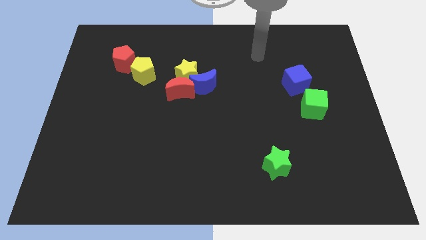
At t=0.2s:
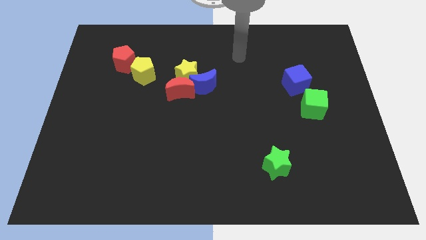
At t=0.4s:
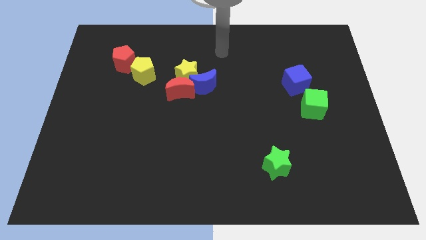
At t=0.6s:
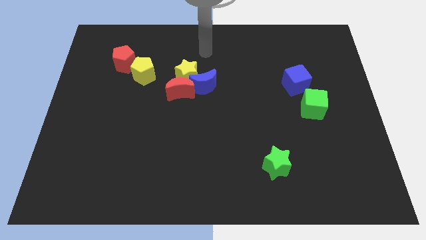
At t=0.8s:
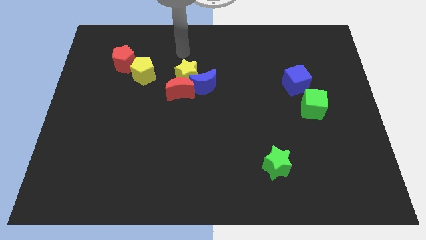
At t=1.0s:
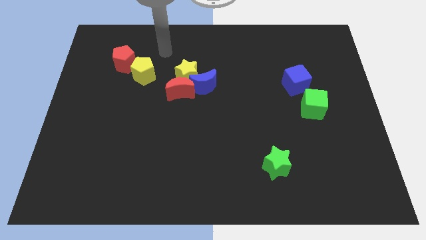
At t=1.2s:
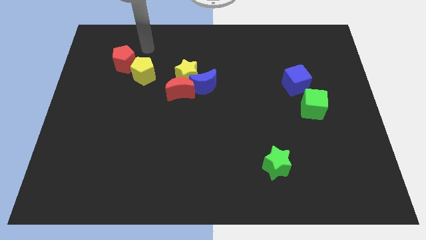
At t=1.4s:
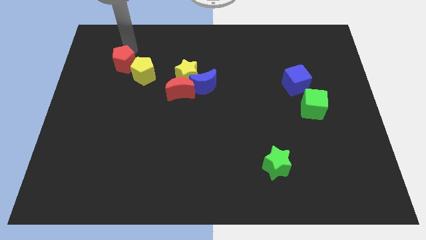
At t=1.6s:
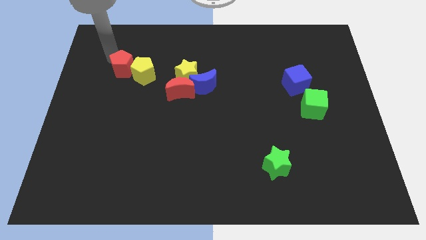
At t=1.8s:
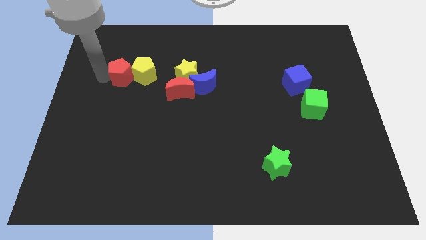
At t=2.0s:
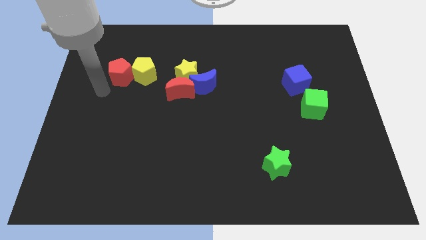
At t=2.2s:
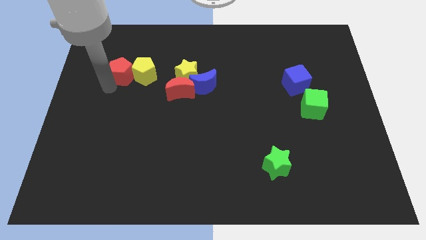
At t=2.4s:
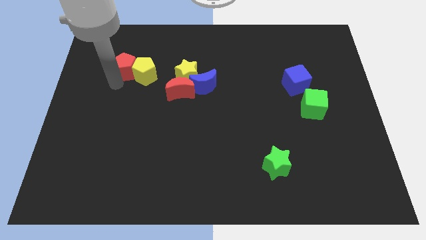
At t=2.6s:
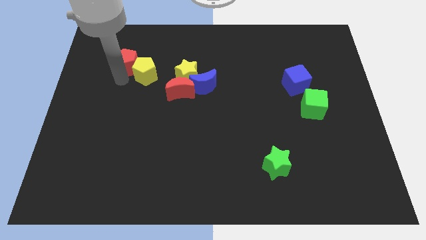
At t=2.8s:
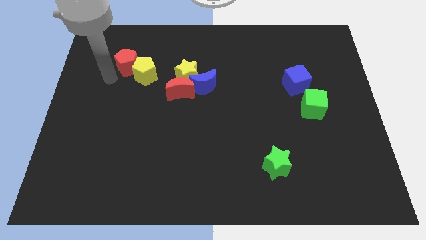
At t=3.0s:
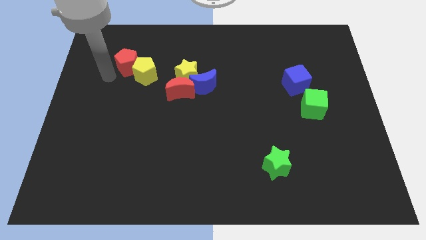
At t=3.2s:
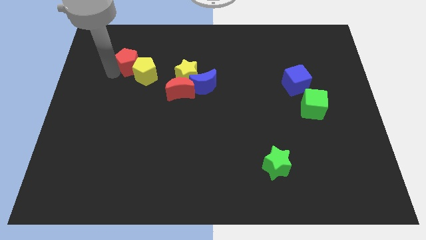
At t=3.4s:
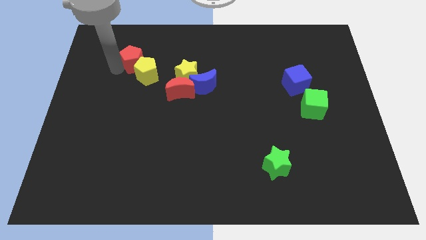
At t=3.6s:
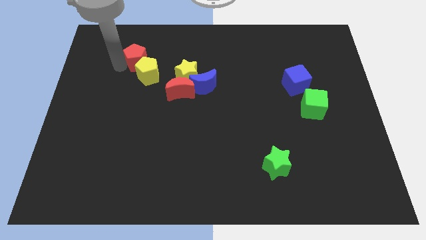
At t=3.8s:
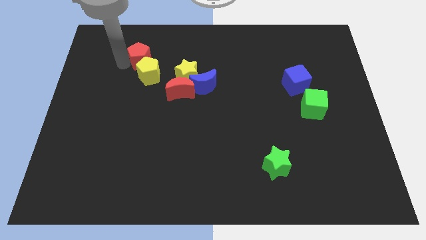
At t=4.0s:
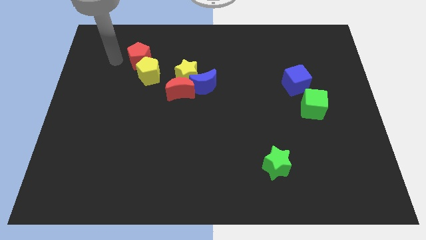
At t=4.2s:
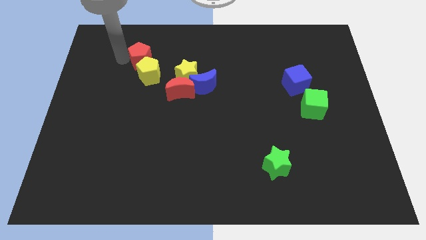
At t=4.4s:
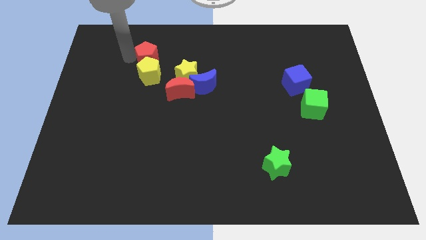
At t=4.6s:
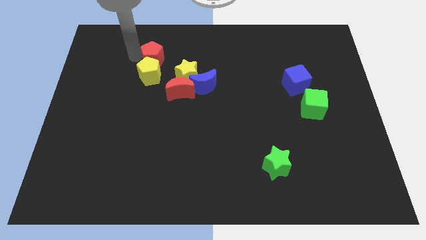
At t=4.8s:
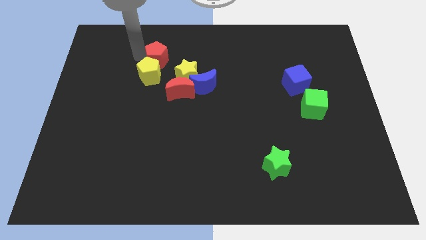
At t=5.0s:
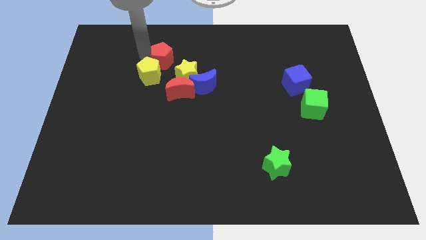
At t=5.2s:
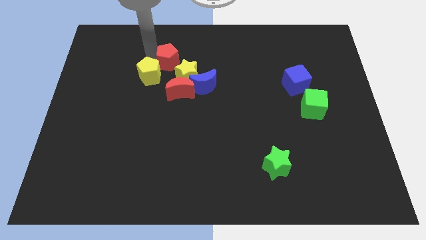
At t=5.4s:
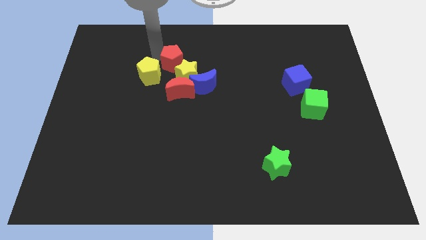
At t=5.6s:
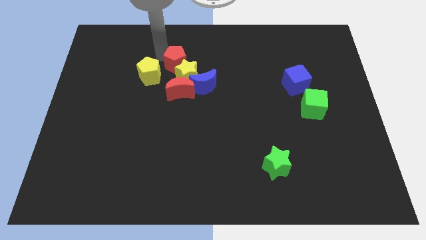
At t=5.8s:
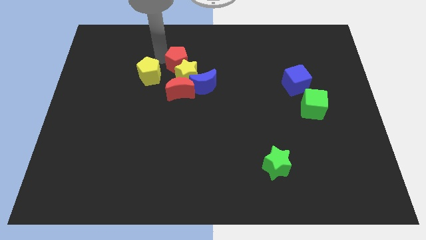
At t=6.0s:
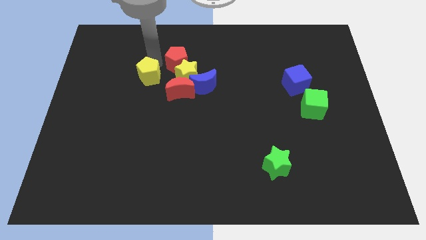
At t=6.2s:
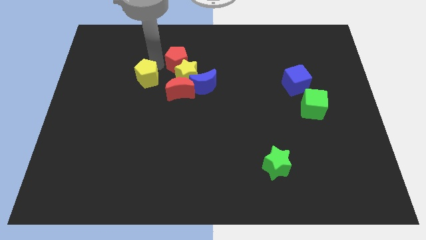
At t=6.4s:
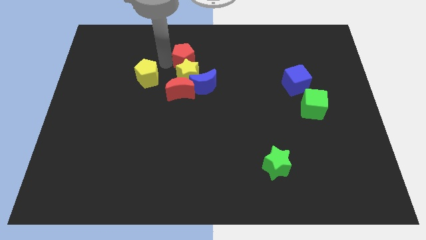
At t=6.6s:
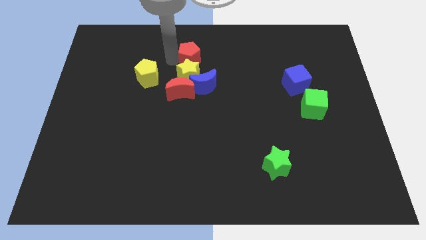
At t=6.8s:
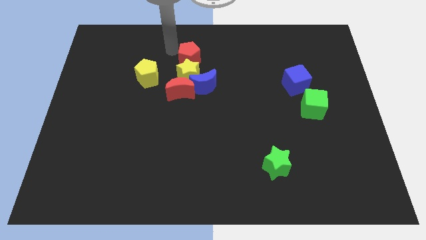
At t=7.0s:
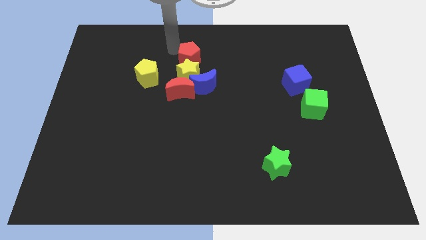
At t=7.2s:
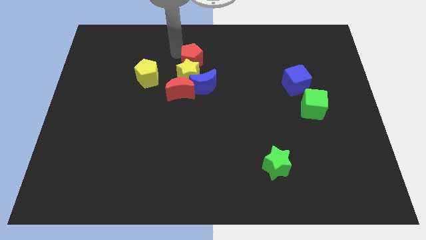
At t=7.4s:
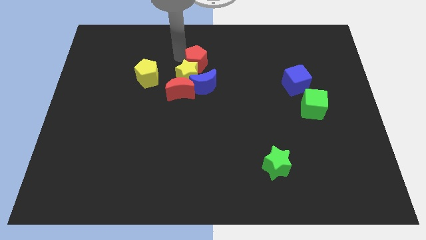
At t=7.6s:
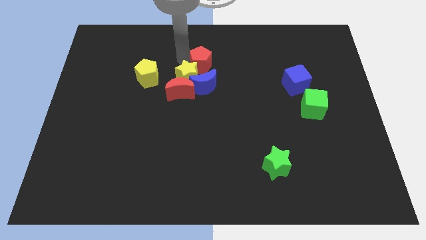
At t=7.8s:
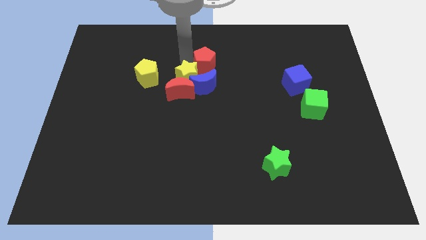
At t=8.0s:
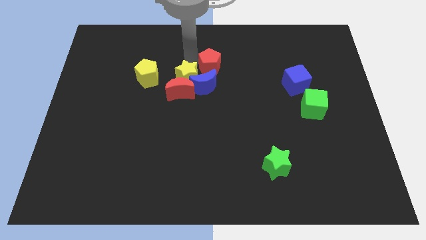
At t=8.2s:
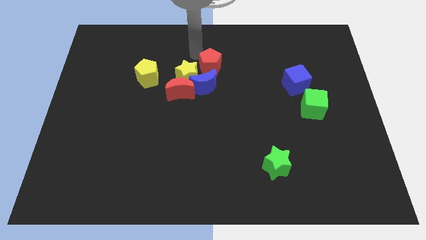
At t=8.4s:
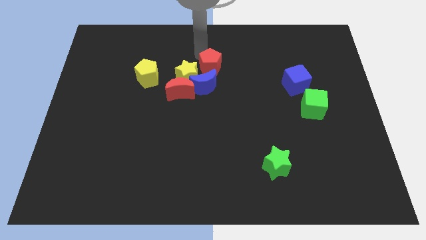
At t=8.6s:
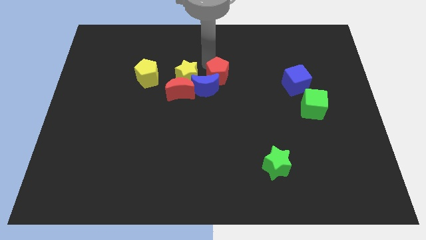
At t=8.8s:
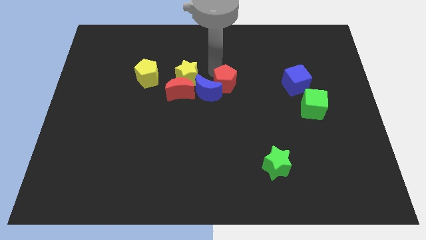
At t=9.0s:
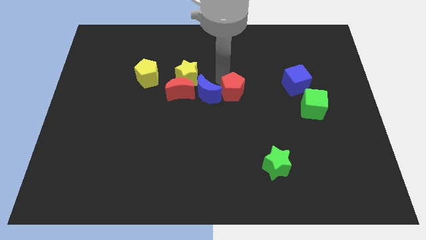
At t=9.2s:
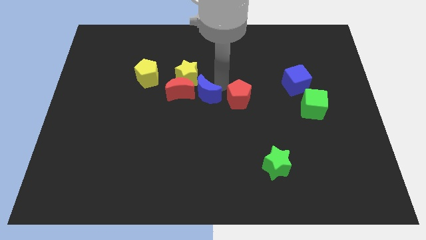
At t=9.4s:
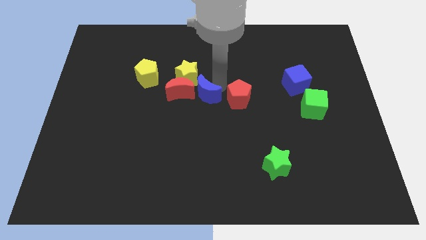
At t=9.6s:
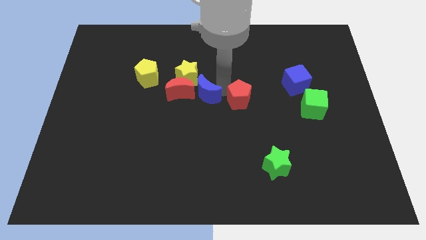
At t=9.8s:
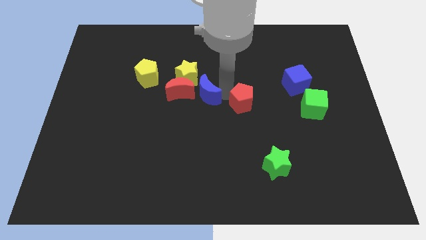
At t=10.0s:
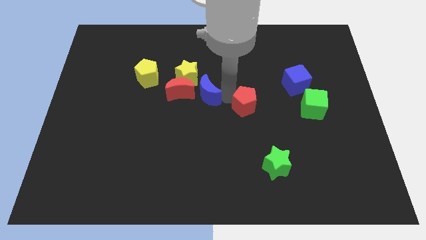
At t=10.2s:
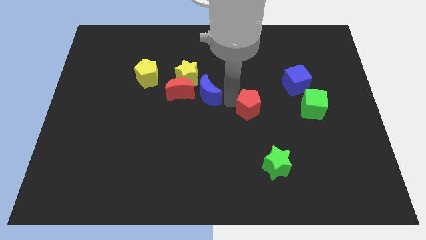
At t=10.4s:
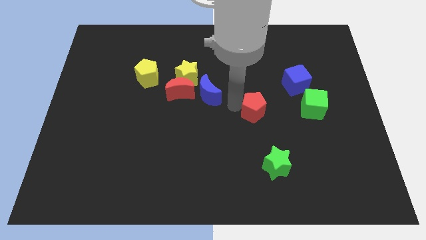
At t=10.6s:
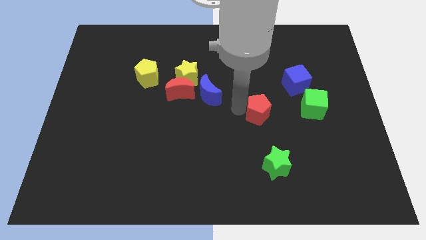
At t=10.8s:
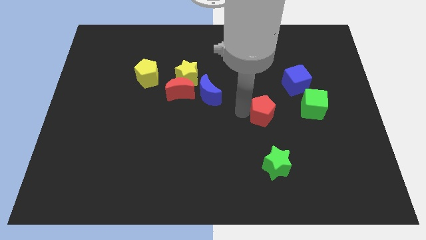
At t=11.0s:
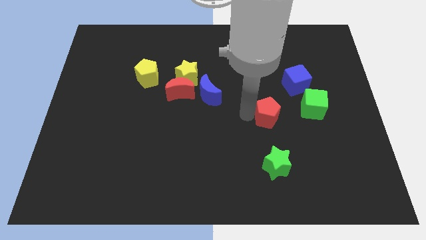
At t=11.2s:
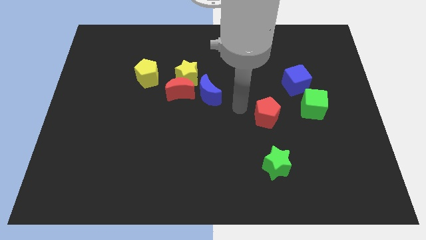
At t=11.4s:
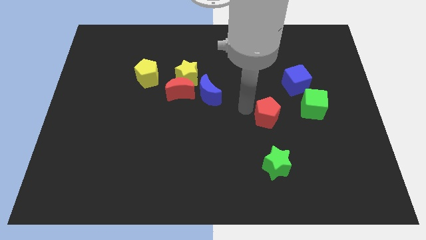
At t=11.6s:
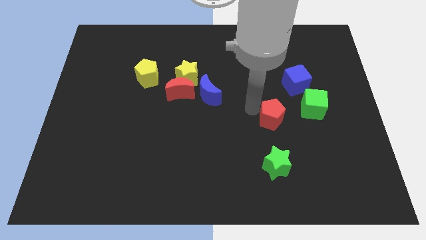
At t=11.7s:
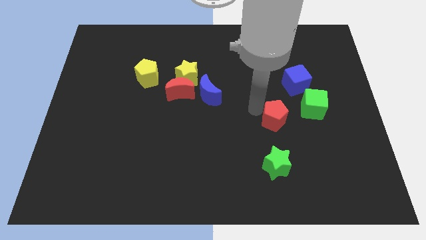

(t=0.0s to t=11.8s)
put the red pentagon to the bottom left side of the green cube
